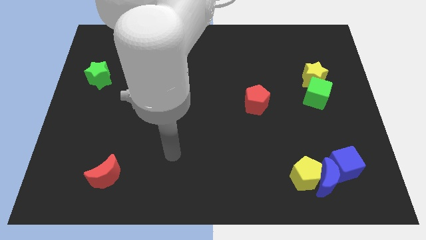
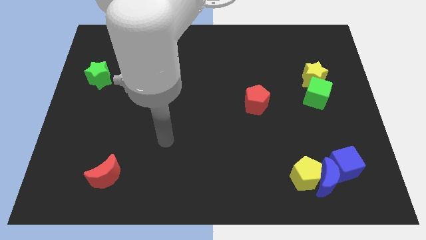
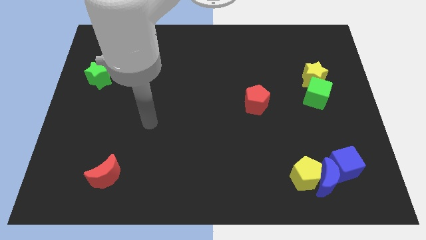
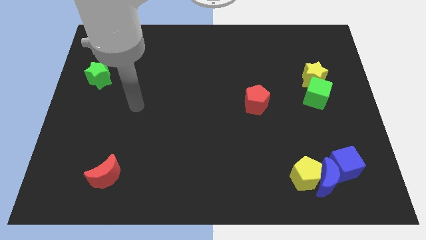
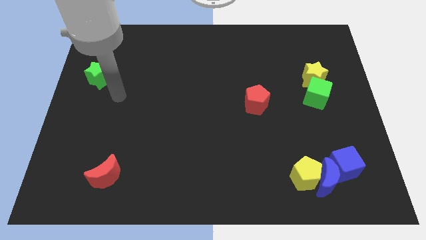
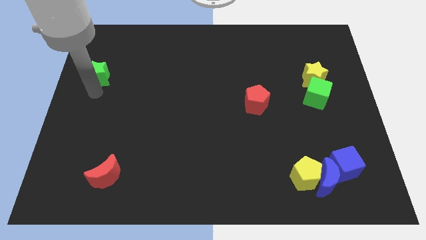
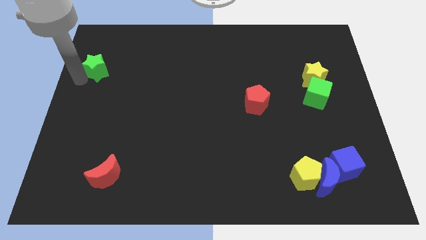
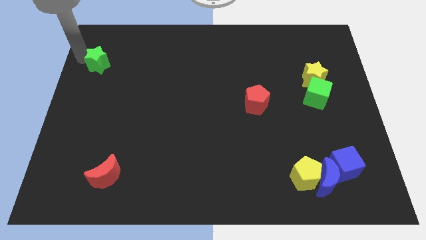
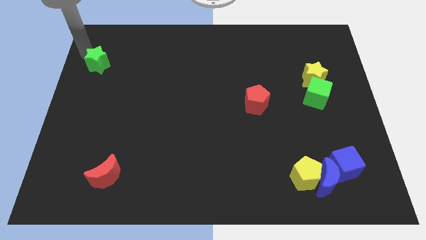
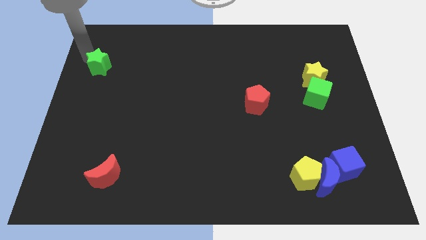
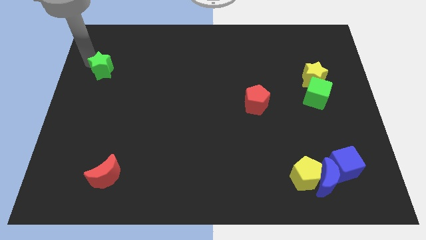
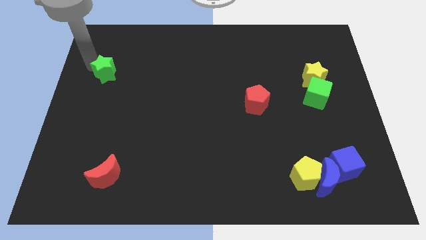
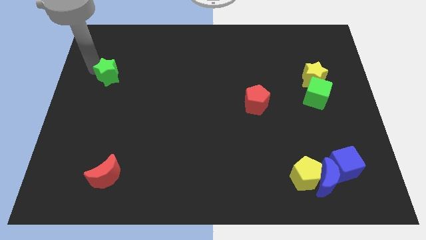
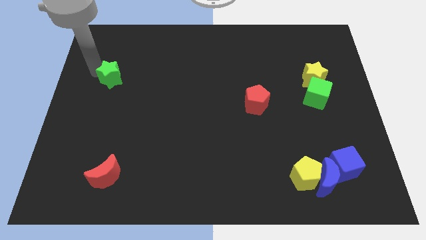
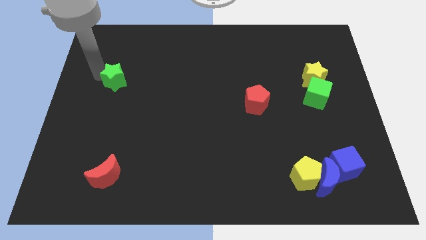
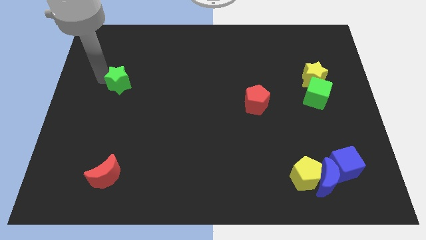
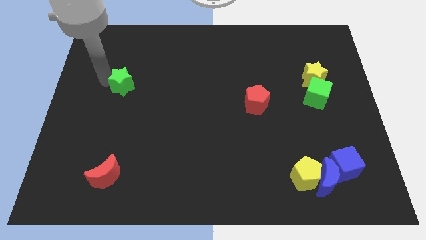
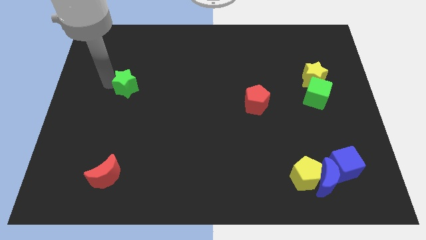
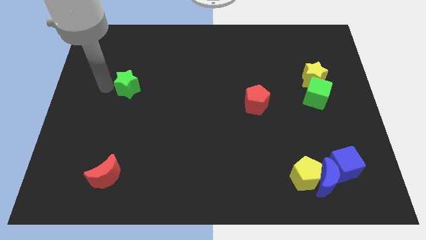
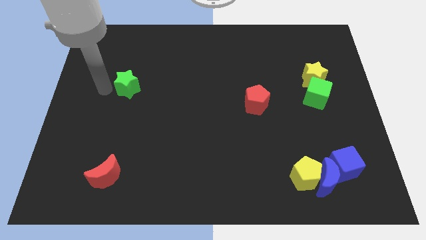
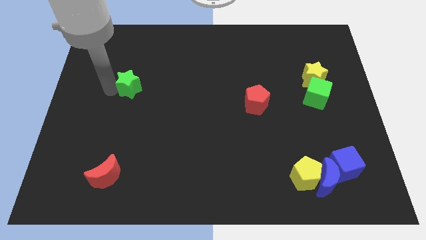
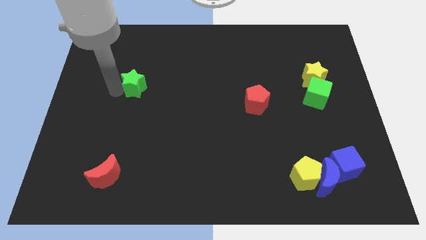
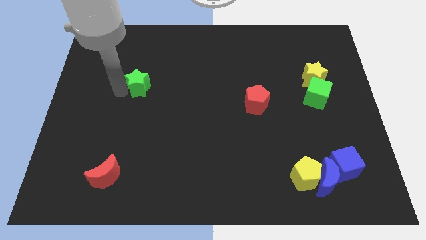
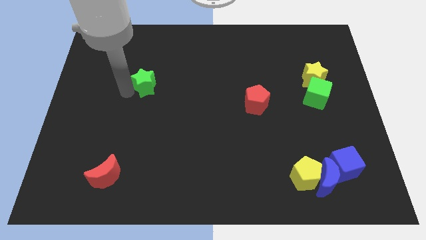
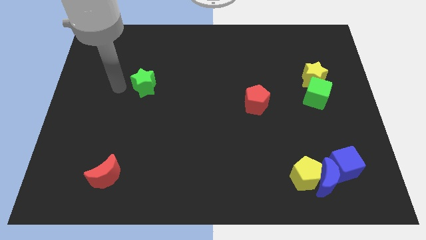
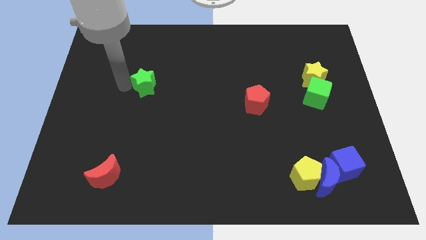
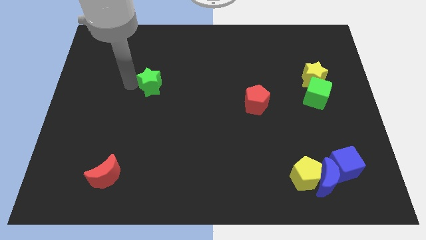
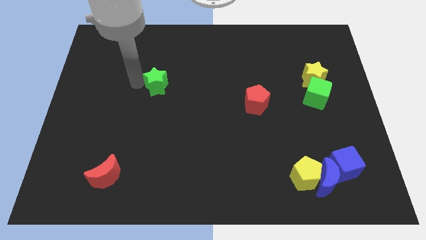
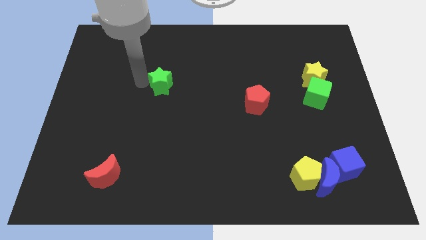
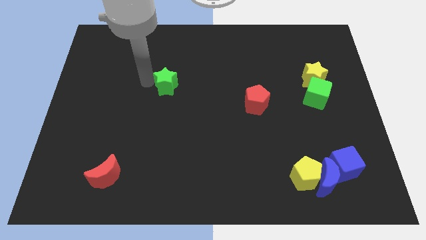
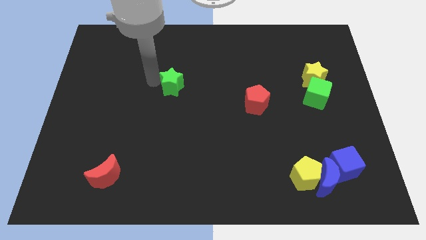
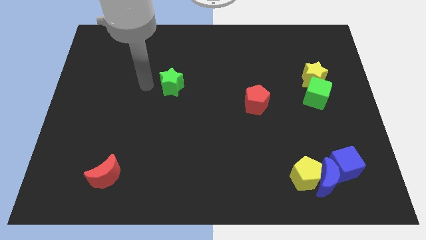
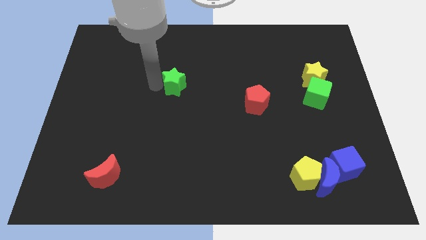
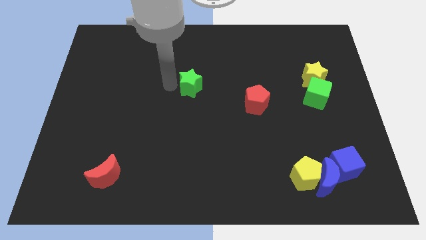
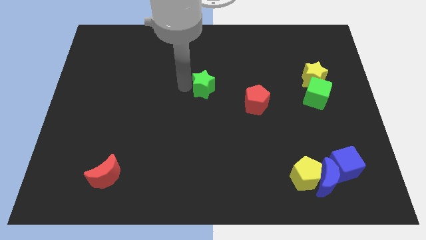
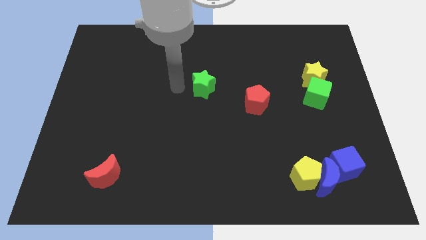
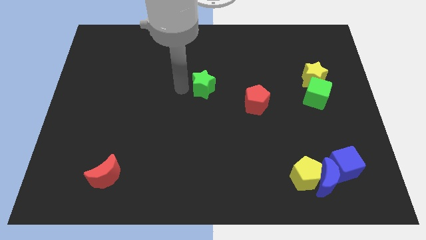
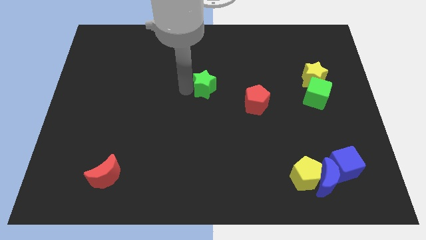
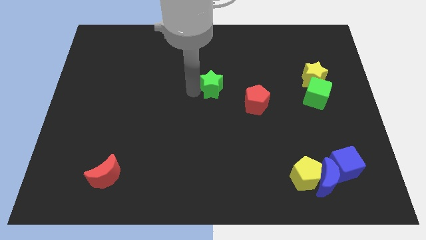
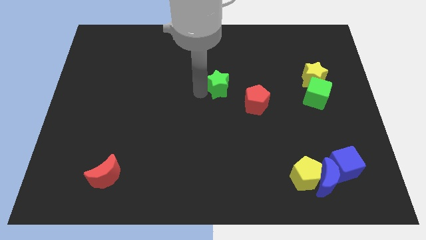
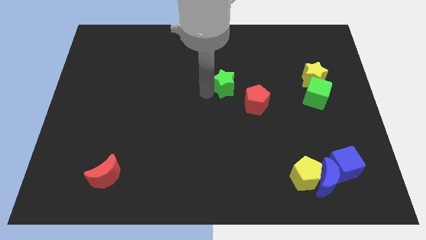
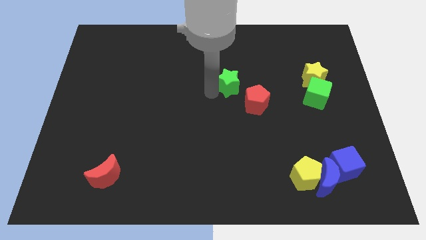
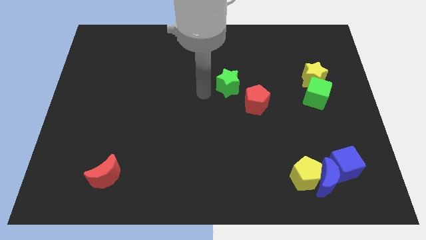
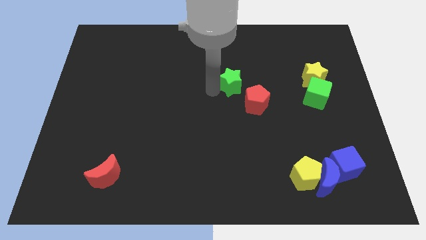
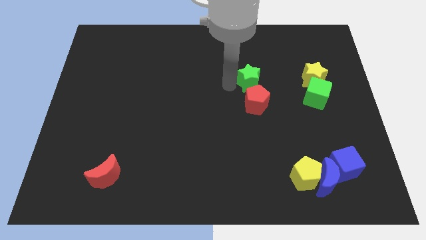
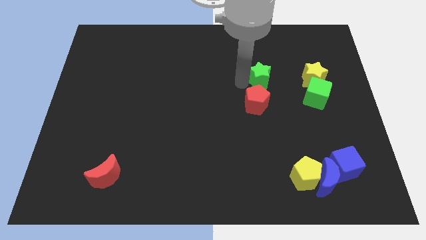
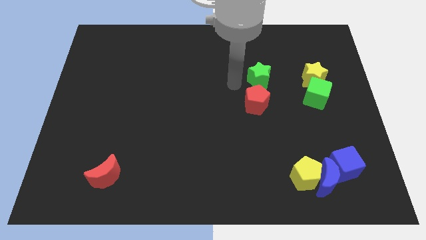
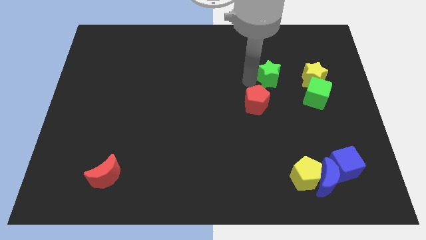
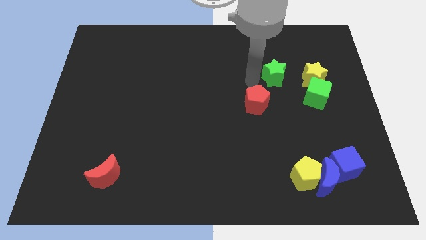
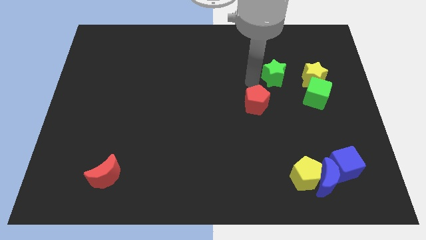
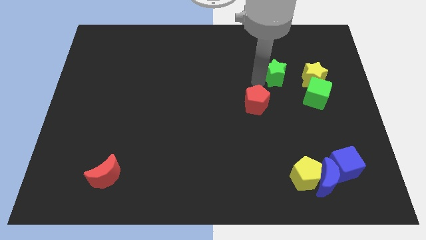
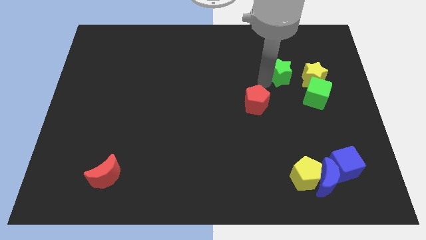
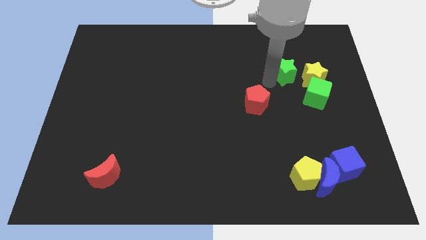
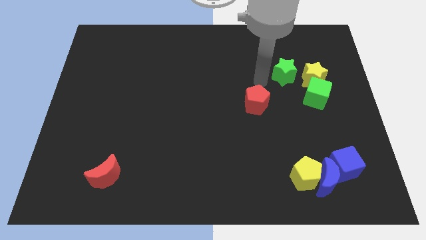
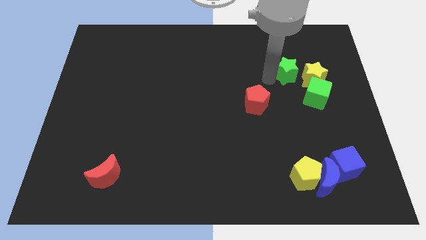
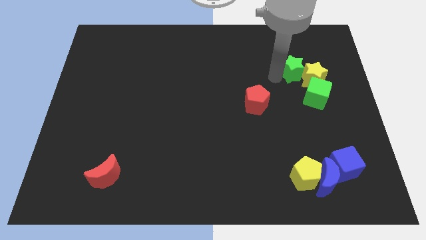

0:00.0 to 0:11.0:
push the green star to the top of the green cube

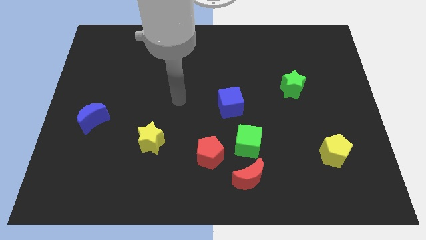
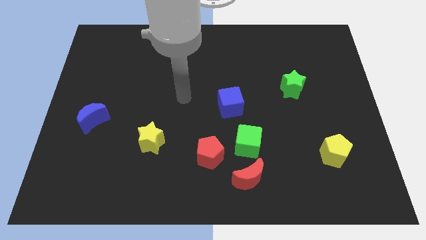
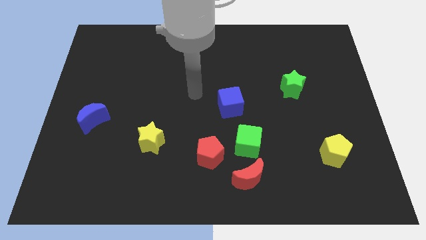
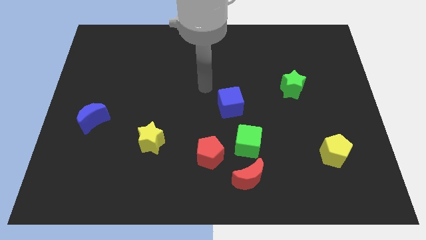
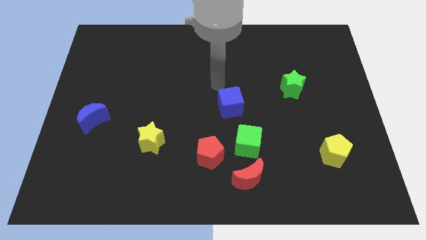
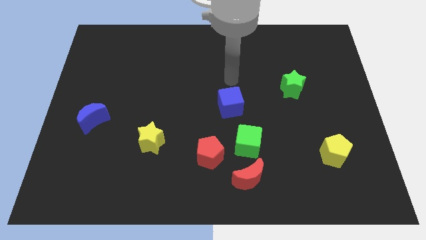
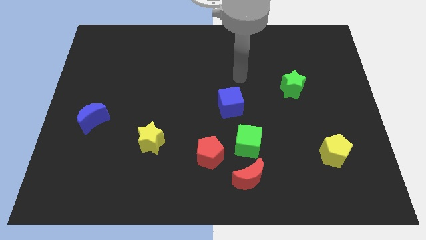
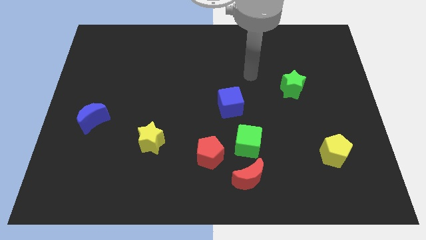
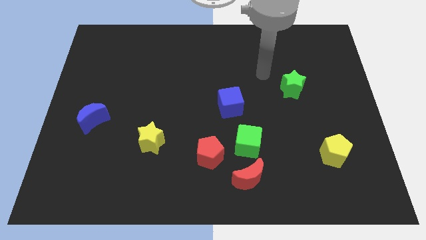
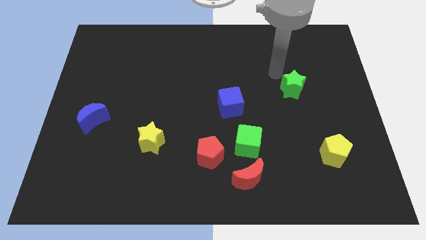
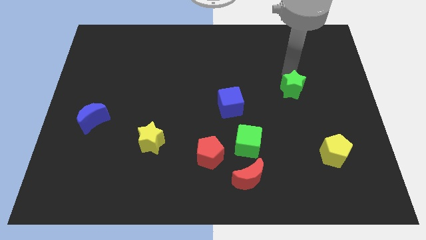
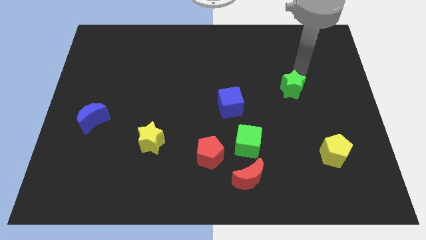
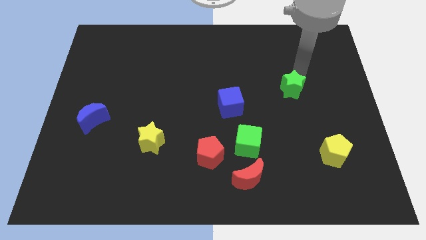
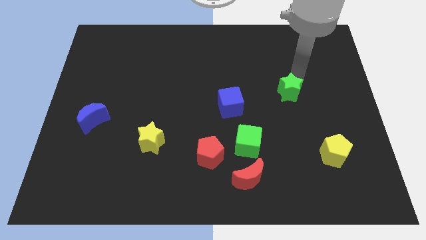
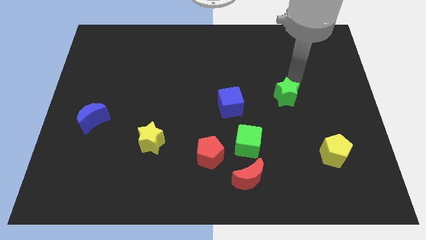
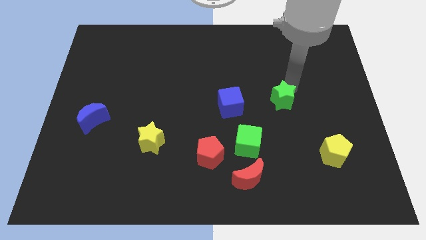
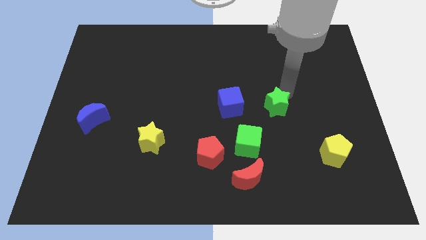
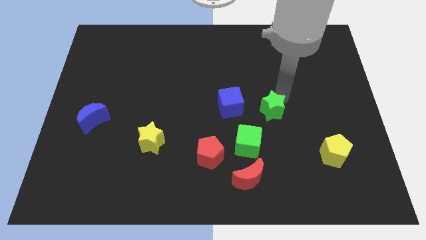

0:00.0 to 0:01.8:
move the green star to the top right of the green cube
